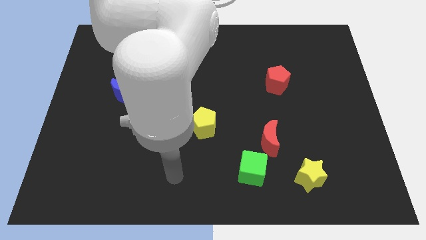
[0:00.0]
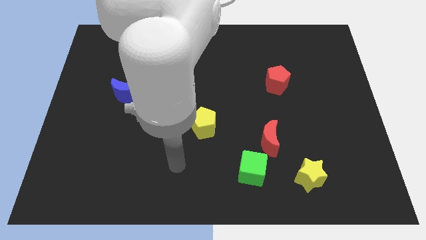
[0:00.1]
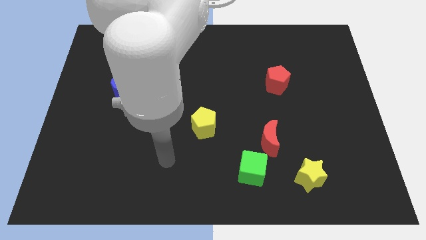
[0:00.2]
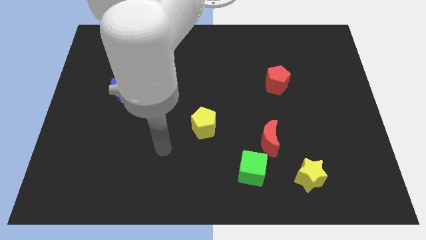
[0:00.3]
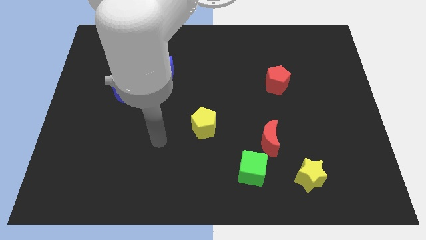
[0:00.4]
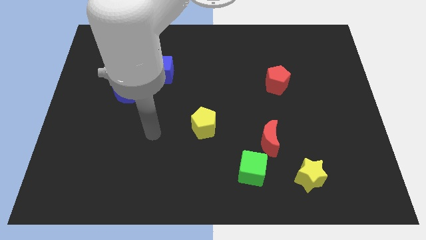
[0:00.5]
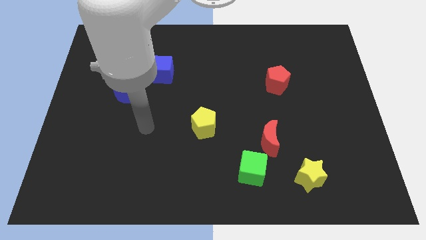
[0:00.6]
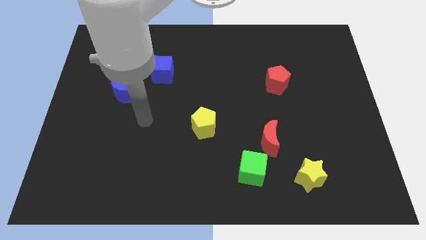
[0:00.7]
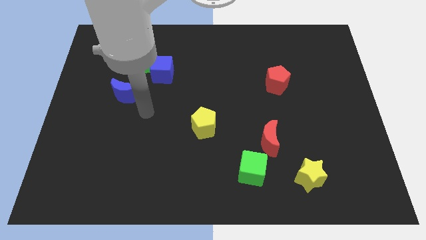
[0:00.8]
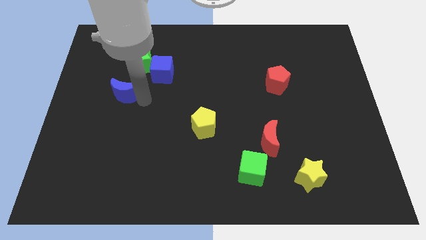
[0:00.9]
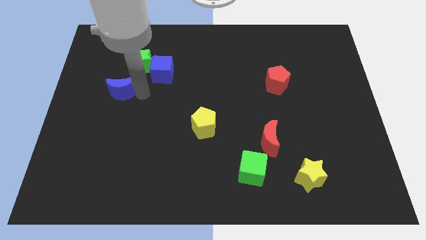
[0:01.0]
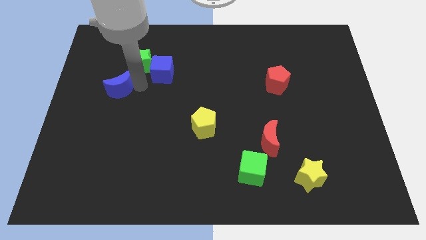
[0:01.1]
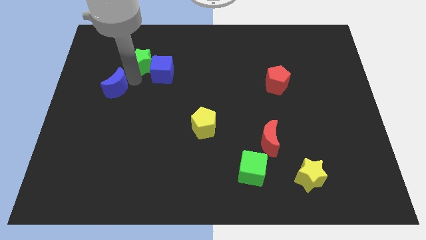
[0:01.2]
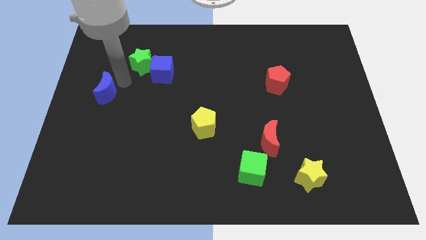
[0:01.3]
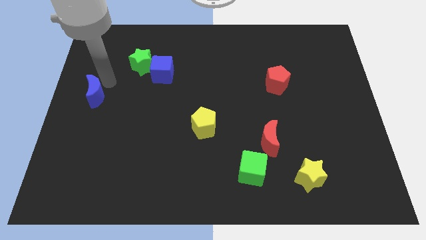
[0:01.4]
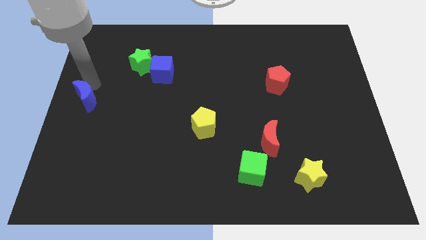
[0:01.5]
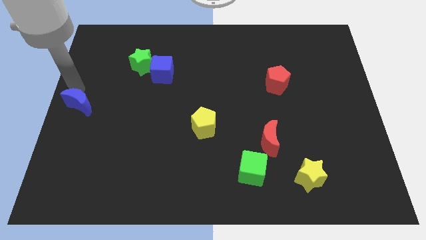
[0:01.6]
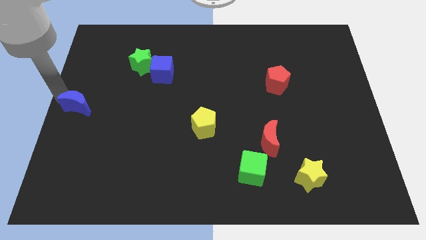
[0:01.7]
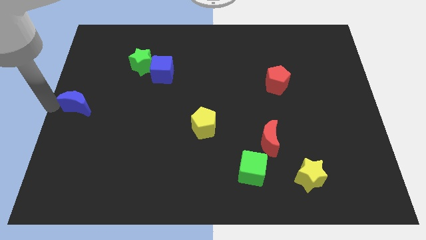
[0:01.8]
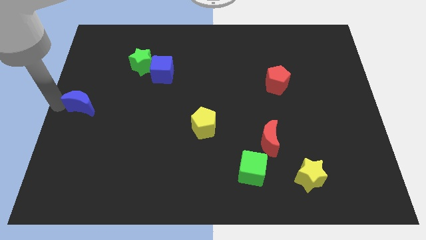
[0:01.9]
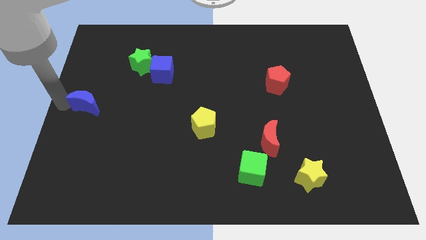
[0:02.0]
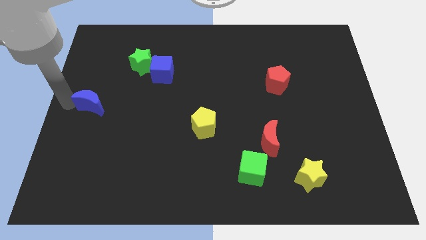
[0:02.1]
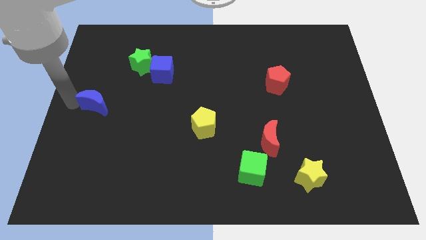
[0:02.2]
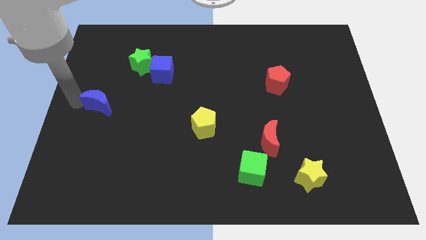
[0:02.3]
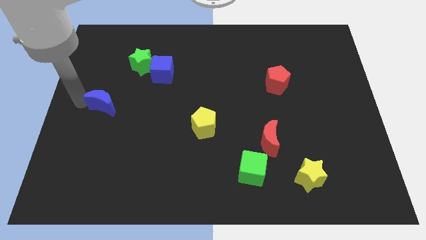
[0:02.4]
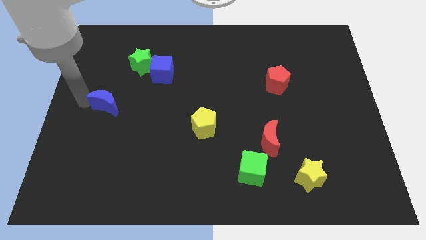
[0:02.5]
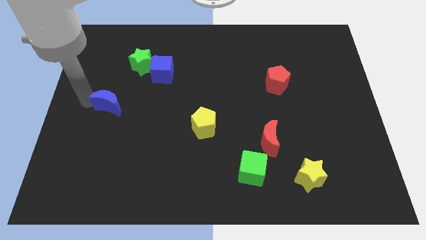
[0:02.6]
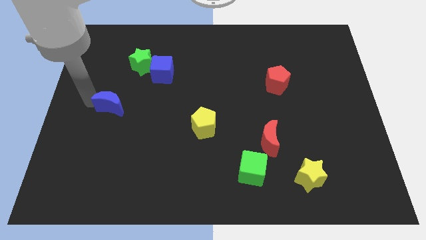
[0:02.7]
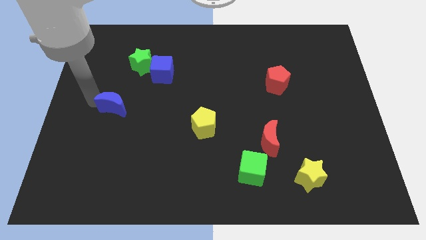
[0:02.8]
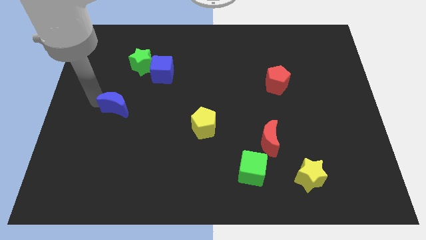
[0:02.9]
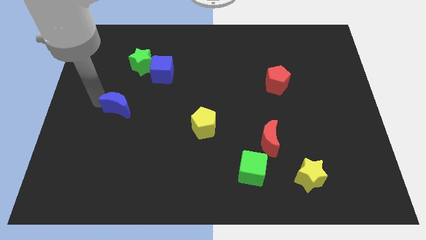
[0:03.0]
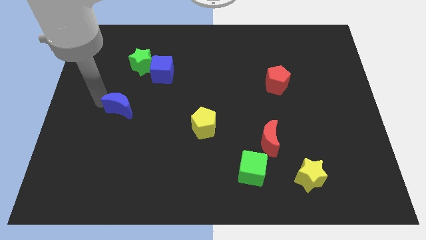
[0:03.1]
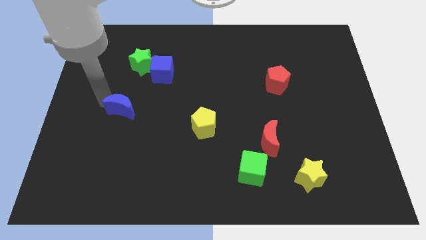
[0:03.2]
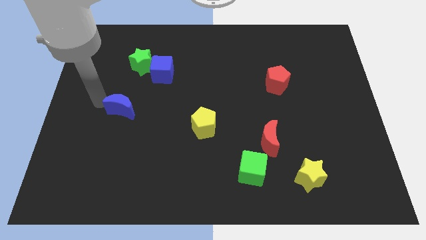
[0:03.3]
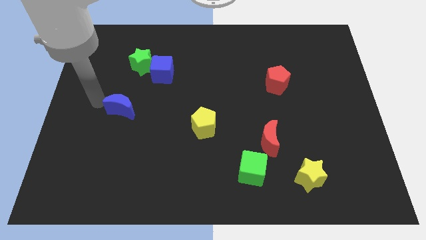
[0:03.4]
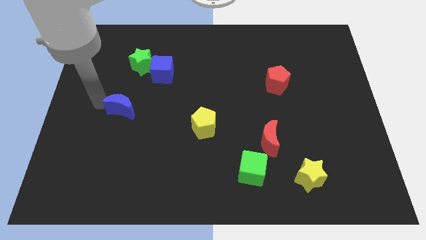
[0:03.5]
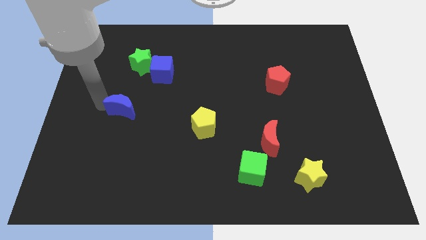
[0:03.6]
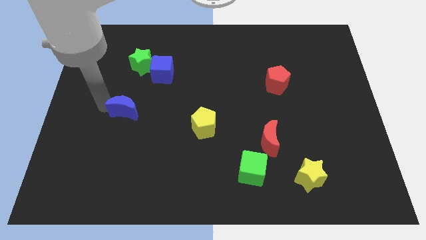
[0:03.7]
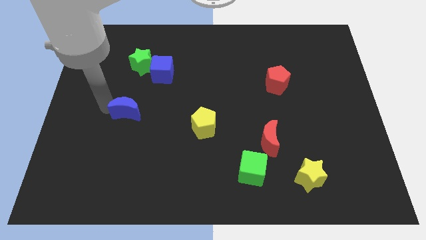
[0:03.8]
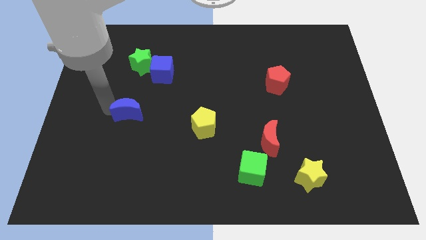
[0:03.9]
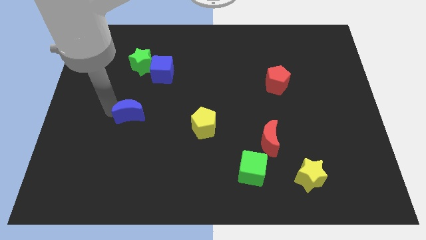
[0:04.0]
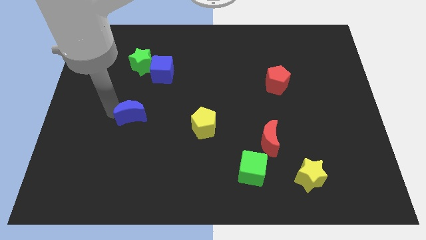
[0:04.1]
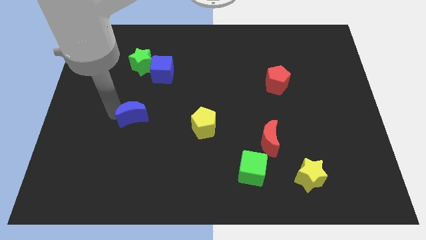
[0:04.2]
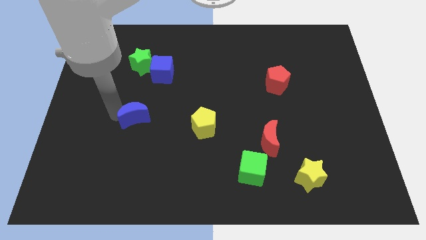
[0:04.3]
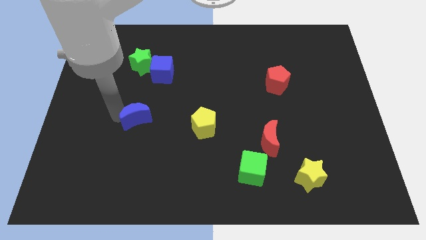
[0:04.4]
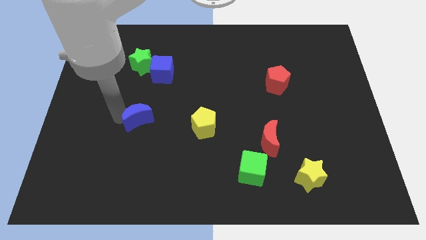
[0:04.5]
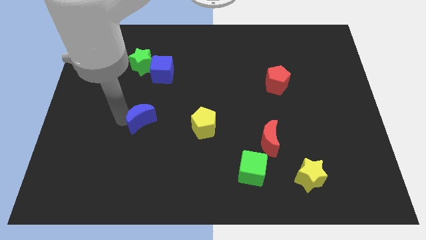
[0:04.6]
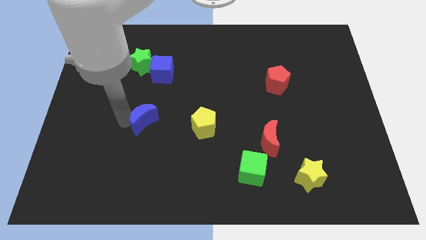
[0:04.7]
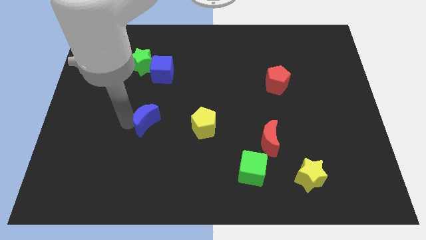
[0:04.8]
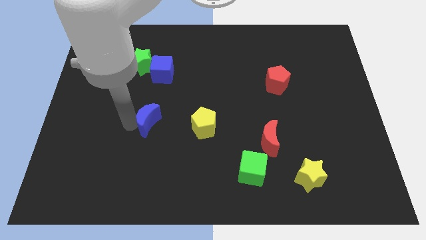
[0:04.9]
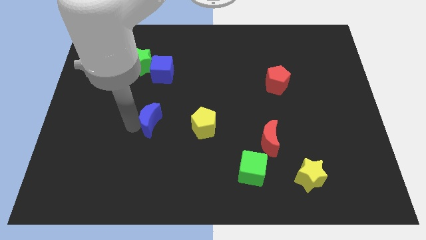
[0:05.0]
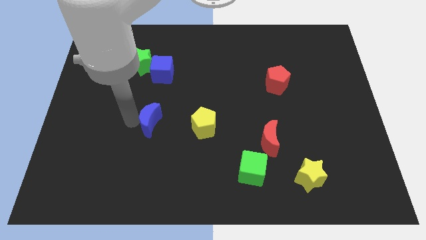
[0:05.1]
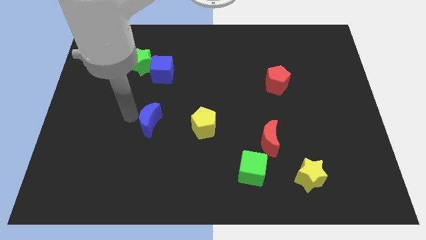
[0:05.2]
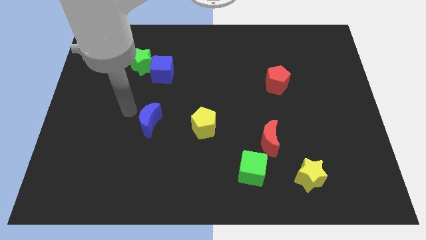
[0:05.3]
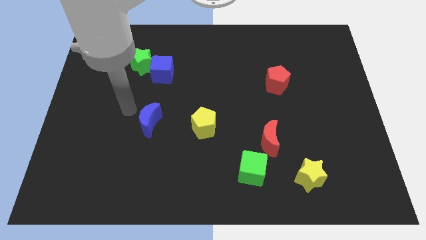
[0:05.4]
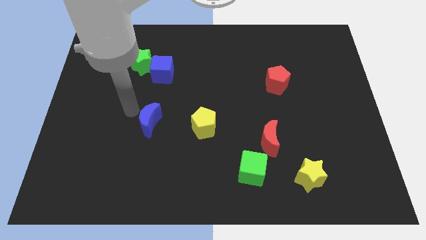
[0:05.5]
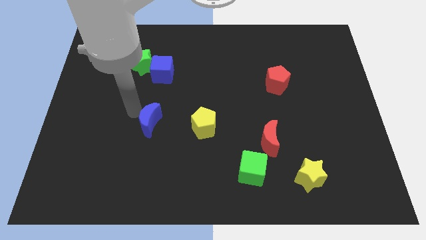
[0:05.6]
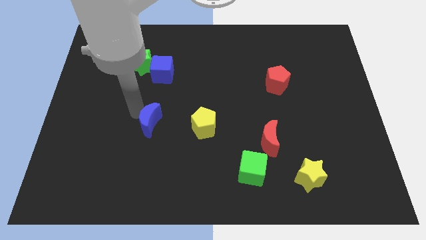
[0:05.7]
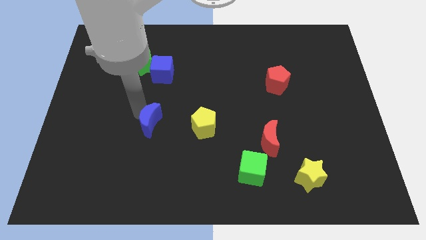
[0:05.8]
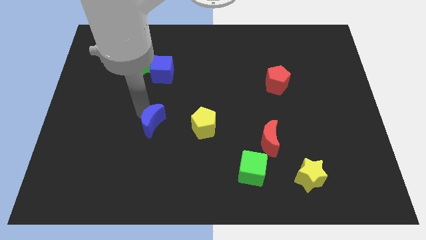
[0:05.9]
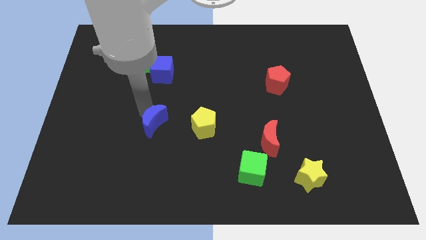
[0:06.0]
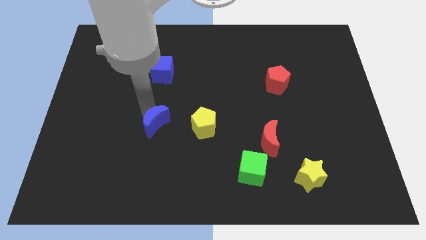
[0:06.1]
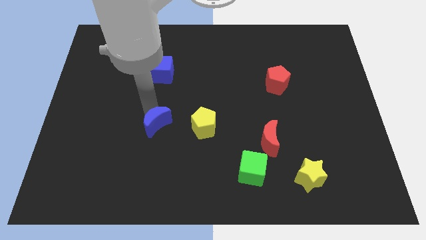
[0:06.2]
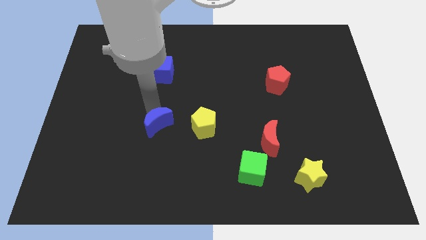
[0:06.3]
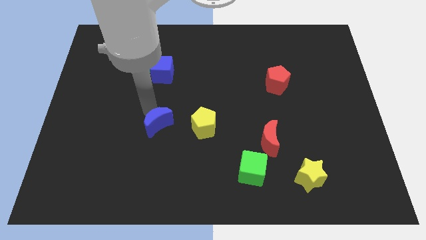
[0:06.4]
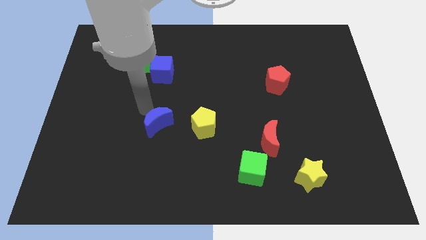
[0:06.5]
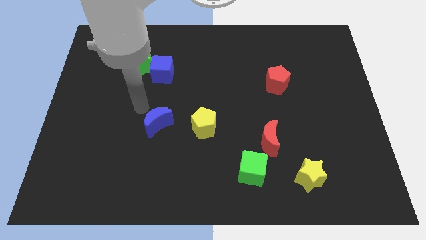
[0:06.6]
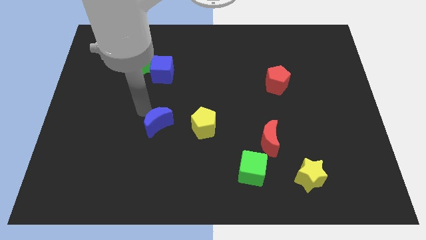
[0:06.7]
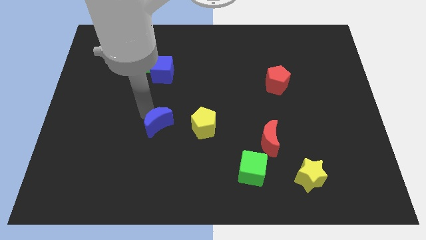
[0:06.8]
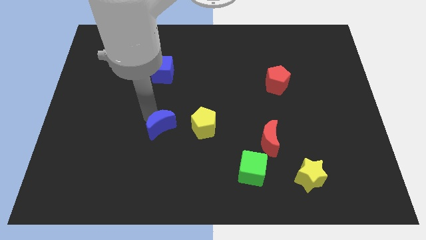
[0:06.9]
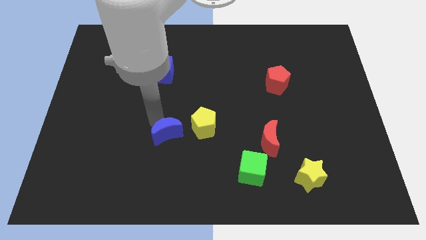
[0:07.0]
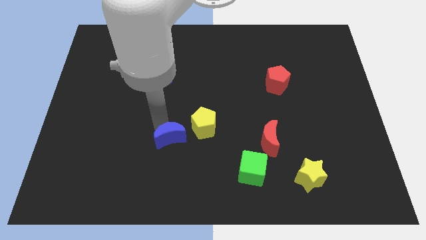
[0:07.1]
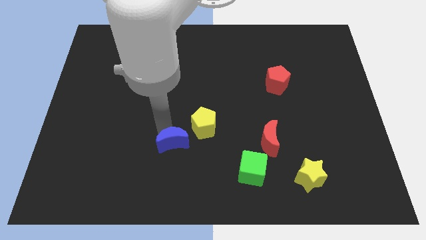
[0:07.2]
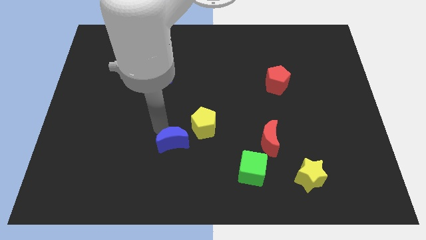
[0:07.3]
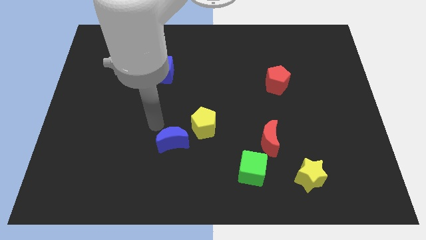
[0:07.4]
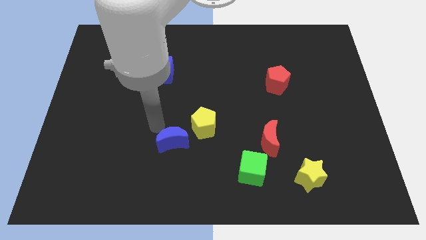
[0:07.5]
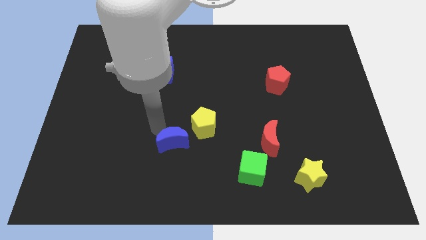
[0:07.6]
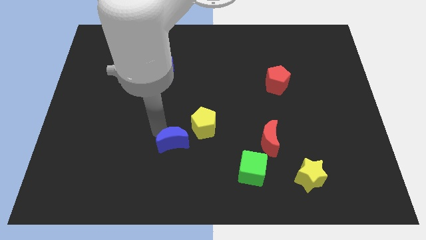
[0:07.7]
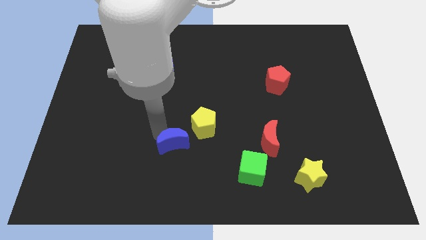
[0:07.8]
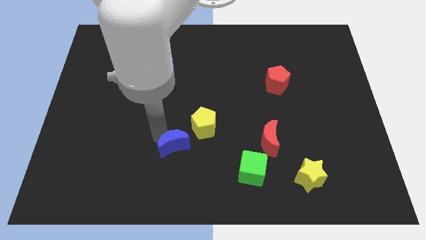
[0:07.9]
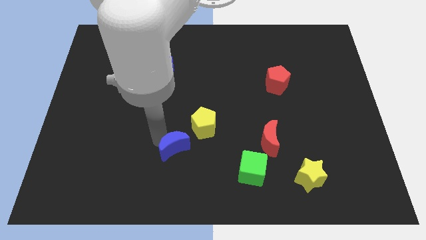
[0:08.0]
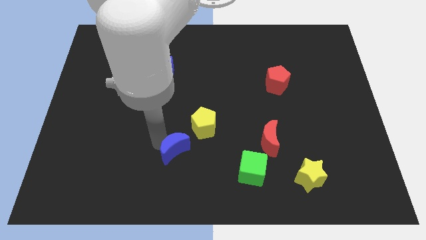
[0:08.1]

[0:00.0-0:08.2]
slide the blue moon downwards and to the right diagonally
